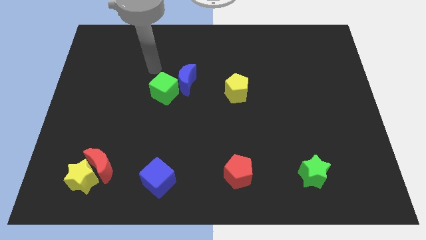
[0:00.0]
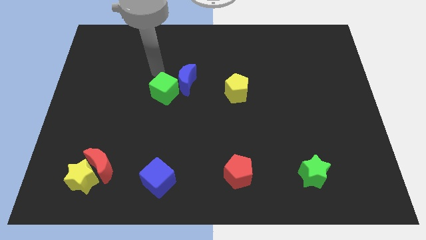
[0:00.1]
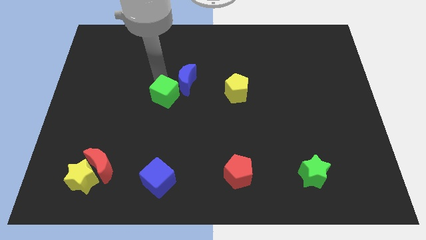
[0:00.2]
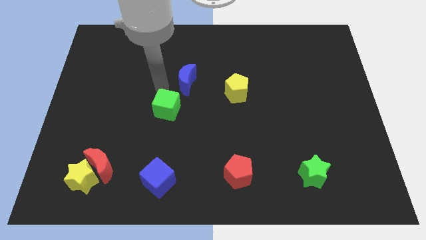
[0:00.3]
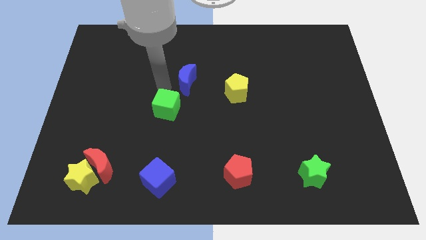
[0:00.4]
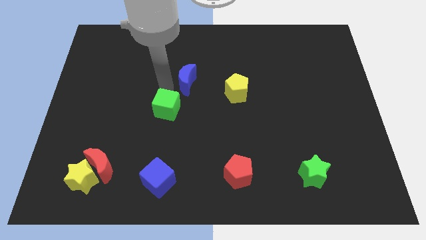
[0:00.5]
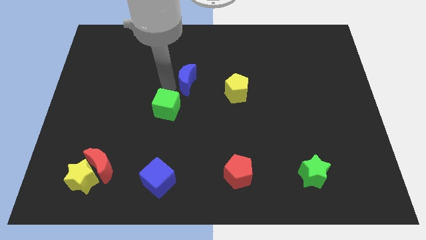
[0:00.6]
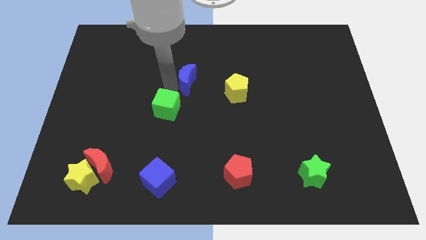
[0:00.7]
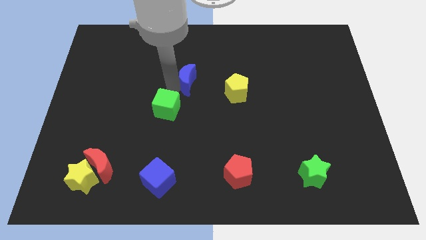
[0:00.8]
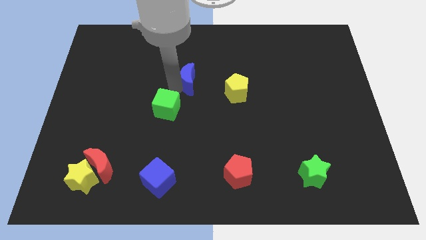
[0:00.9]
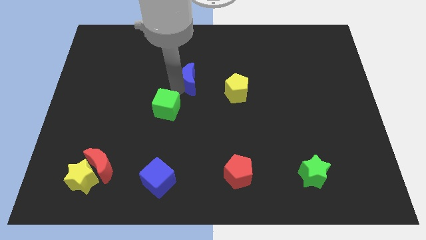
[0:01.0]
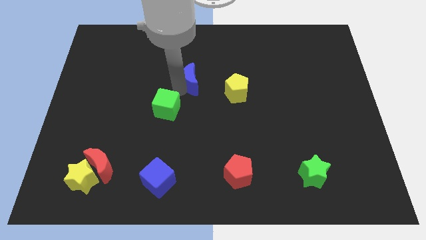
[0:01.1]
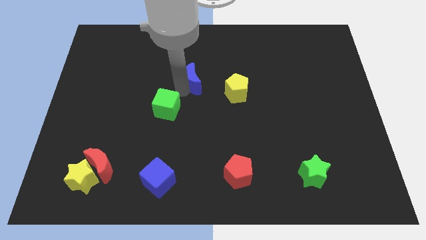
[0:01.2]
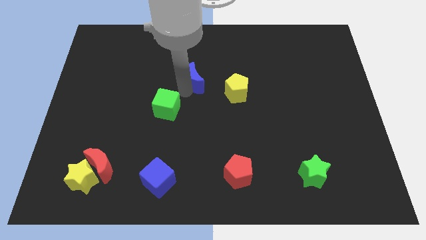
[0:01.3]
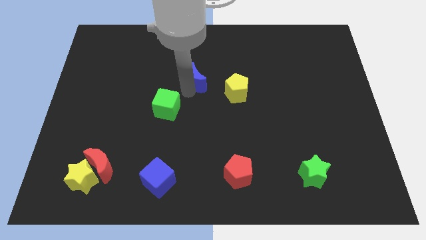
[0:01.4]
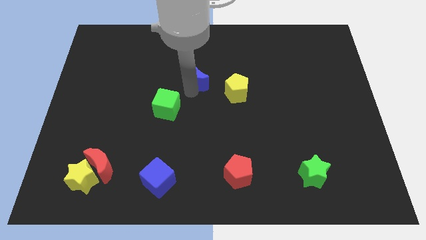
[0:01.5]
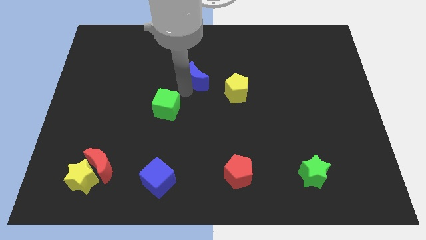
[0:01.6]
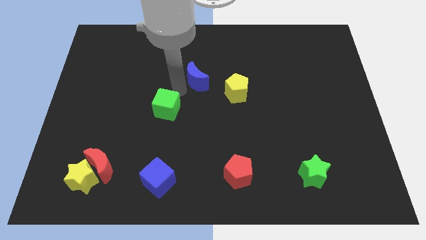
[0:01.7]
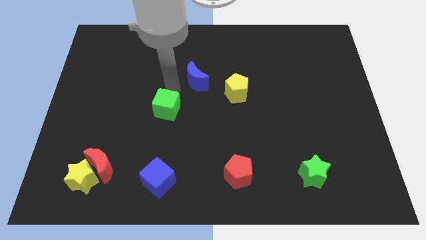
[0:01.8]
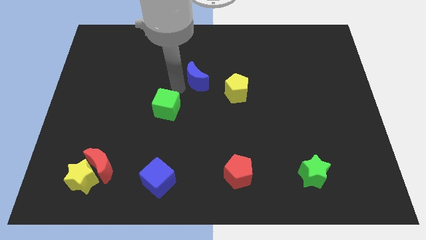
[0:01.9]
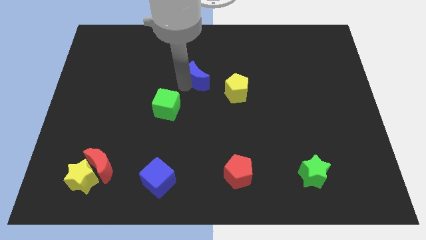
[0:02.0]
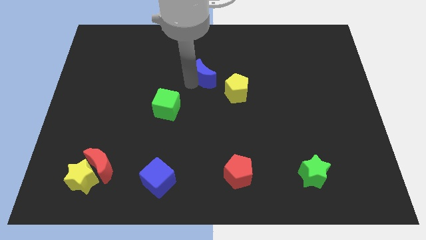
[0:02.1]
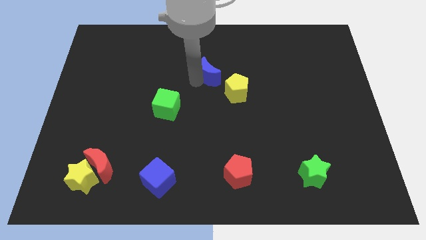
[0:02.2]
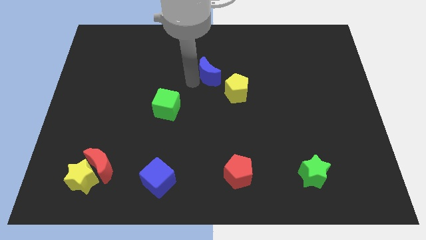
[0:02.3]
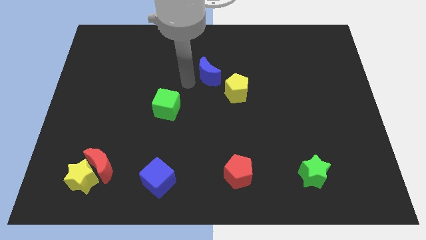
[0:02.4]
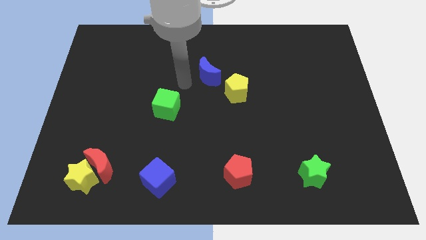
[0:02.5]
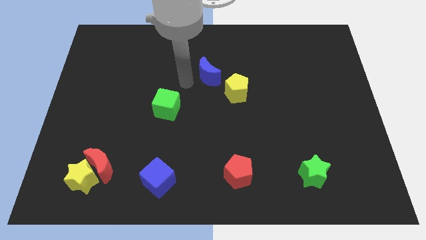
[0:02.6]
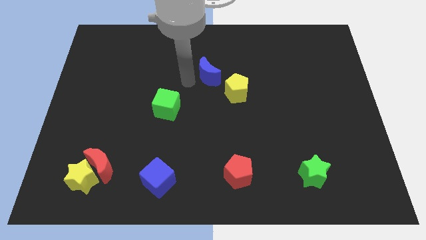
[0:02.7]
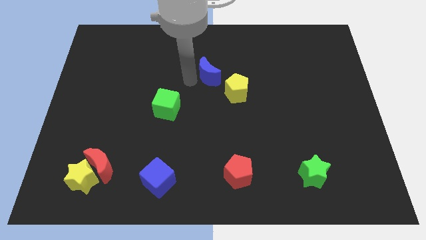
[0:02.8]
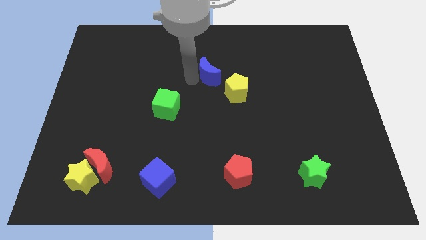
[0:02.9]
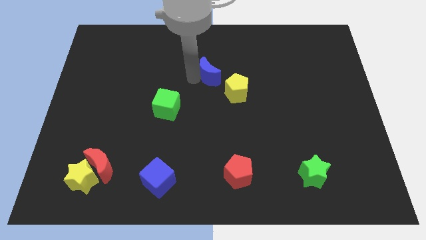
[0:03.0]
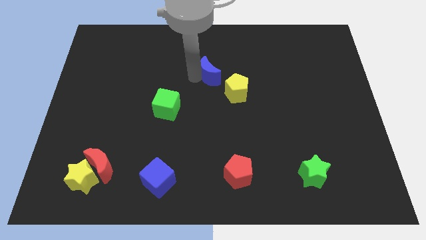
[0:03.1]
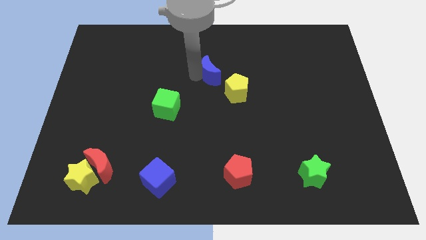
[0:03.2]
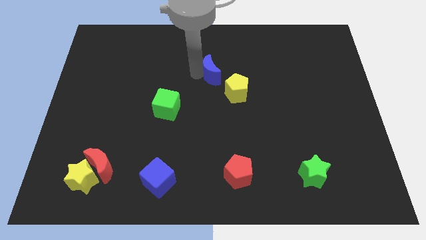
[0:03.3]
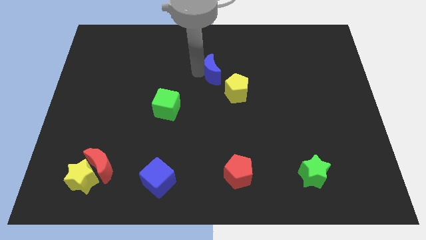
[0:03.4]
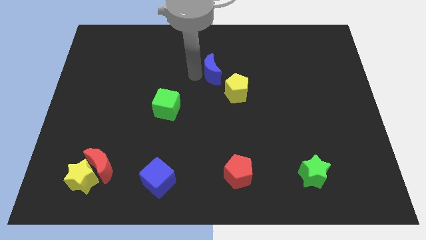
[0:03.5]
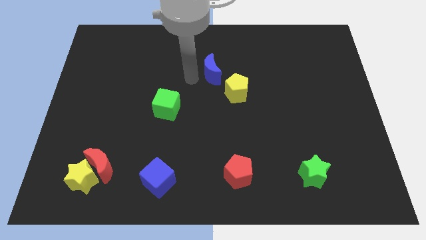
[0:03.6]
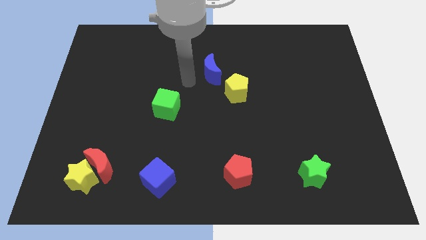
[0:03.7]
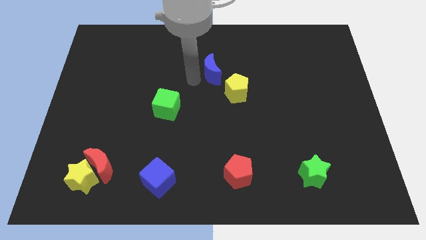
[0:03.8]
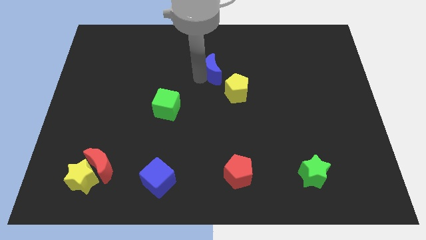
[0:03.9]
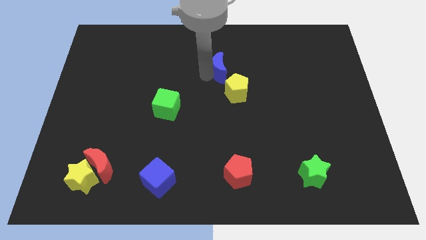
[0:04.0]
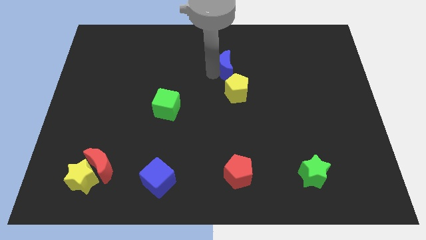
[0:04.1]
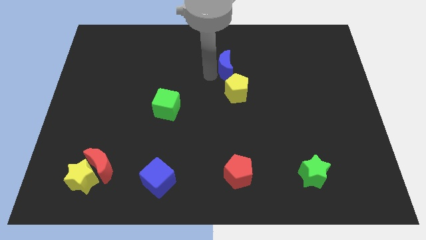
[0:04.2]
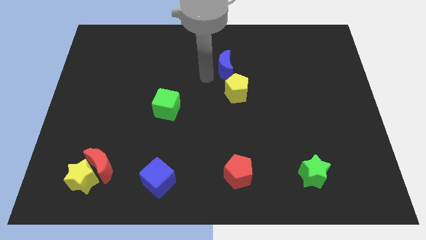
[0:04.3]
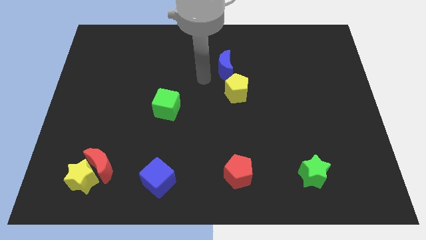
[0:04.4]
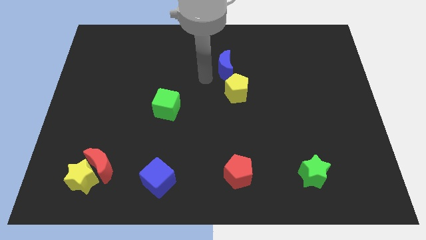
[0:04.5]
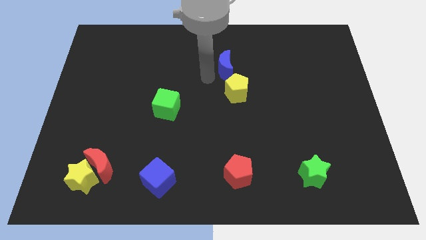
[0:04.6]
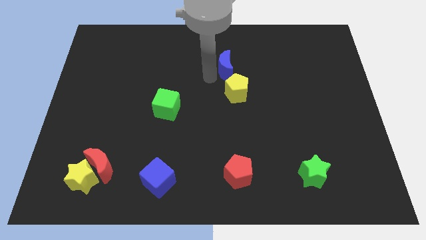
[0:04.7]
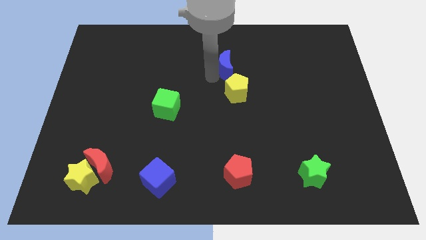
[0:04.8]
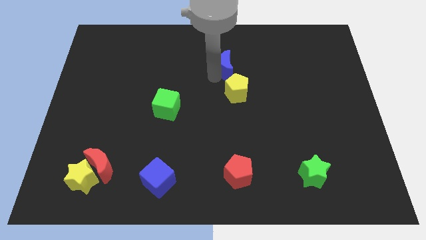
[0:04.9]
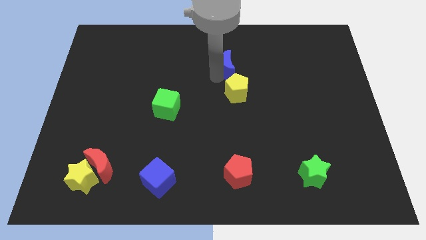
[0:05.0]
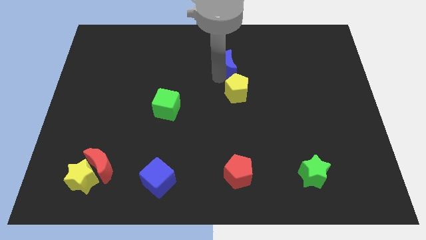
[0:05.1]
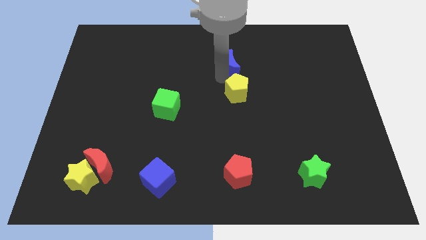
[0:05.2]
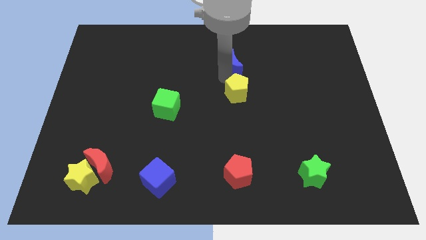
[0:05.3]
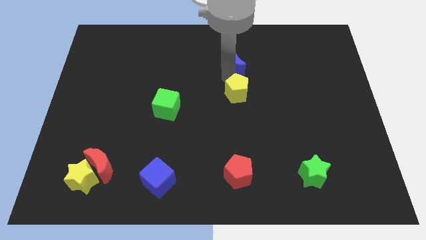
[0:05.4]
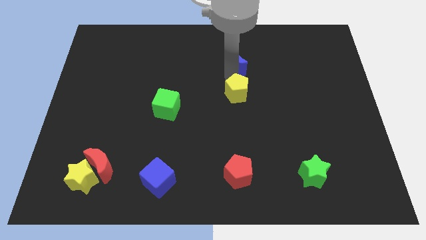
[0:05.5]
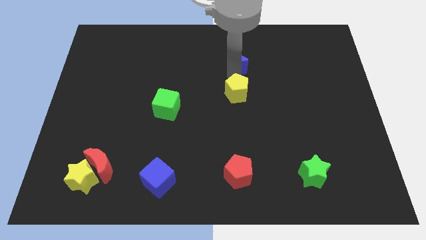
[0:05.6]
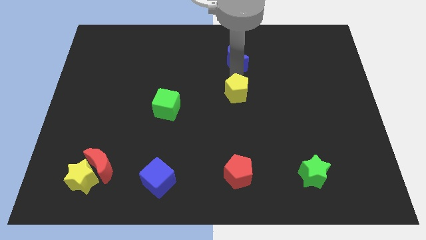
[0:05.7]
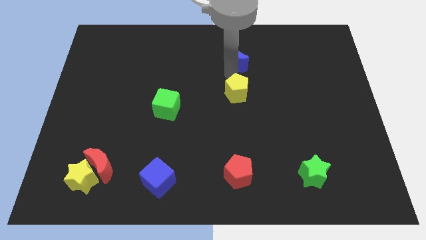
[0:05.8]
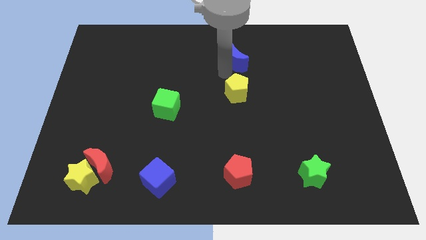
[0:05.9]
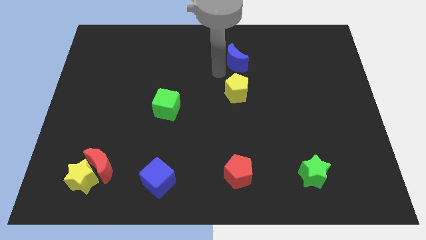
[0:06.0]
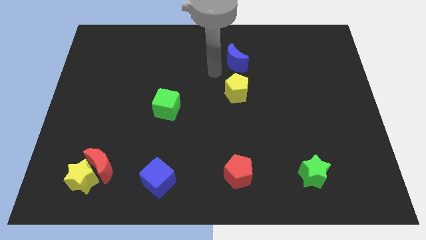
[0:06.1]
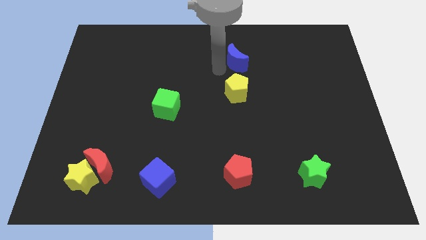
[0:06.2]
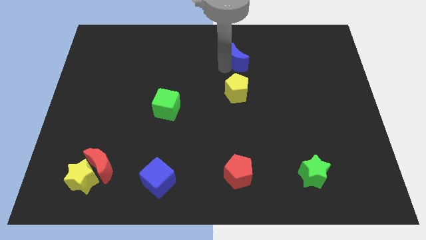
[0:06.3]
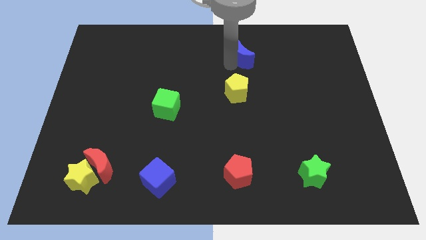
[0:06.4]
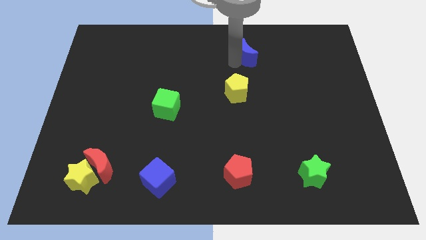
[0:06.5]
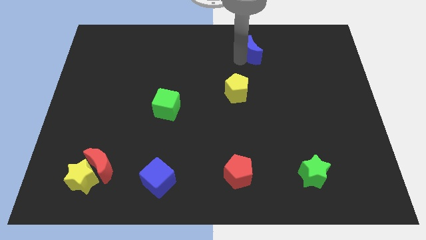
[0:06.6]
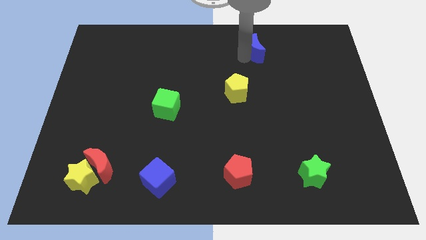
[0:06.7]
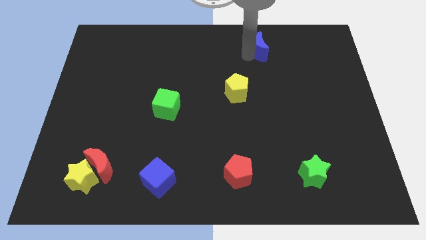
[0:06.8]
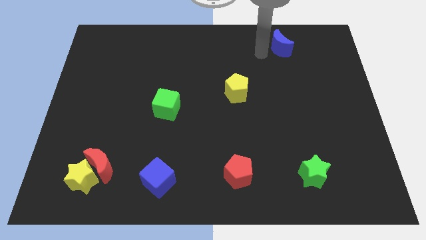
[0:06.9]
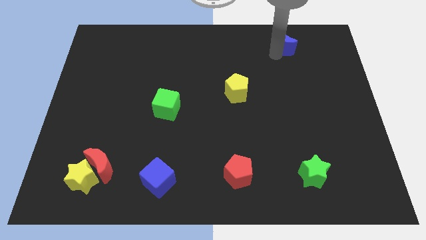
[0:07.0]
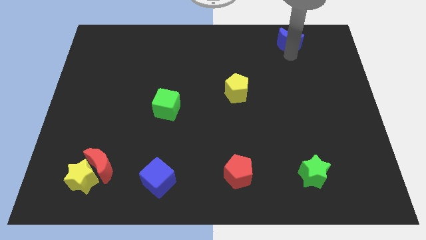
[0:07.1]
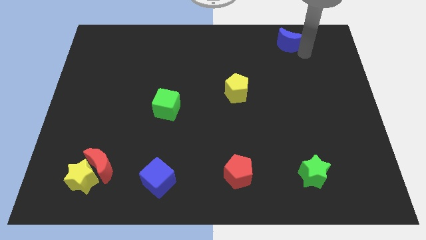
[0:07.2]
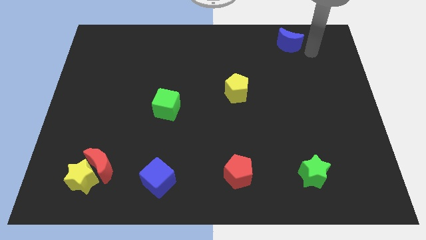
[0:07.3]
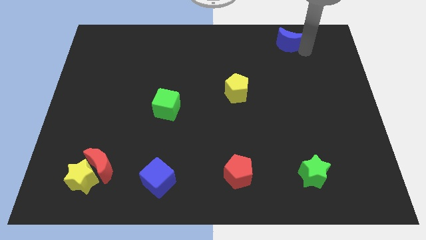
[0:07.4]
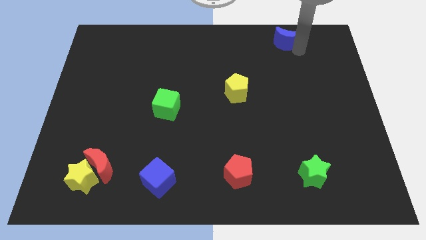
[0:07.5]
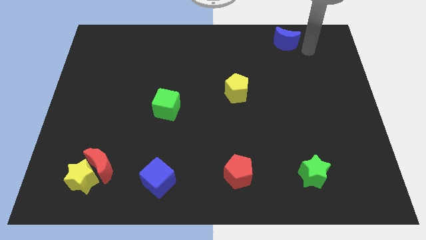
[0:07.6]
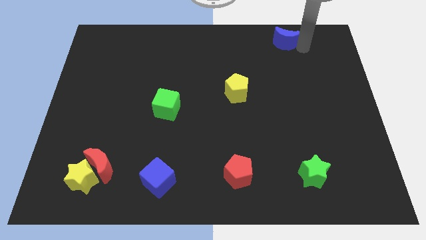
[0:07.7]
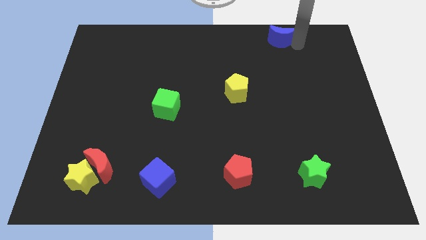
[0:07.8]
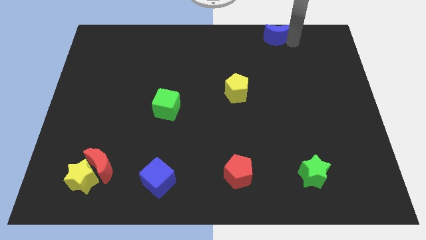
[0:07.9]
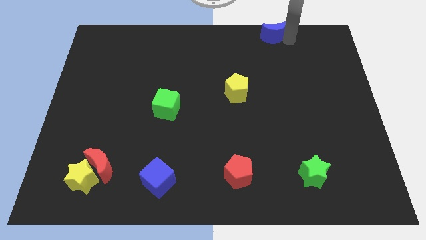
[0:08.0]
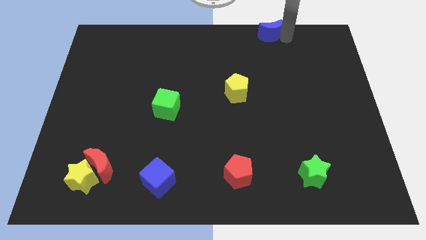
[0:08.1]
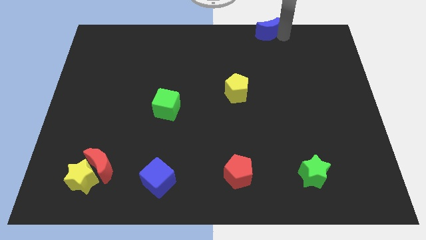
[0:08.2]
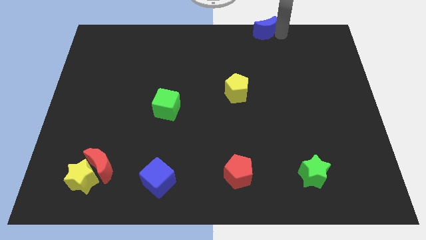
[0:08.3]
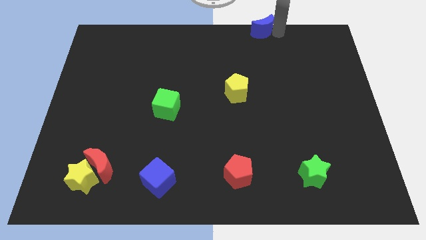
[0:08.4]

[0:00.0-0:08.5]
slide the blue moon to the towards your base
